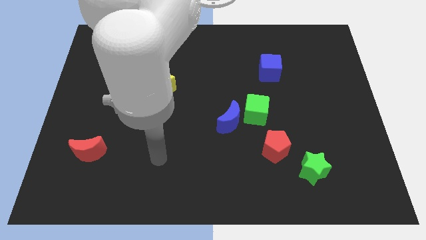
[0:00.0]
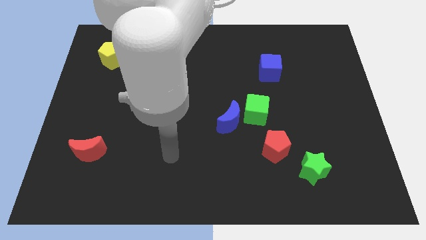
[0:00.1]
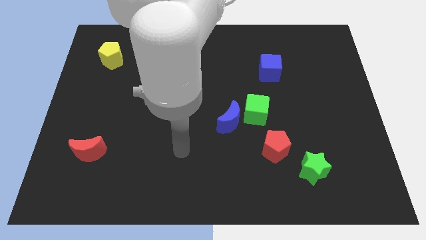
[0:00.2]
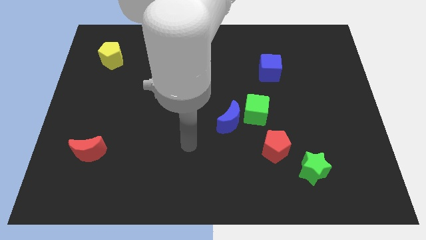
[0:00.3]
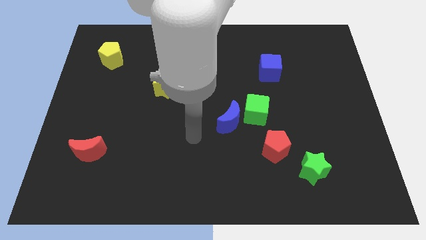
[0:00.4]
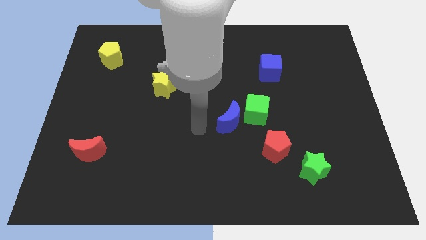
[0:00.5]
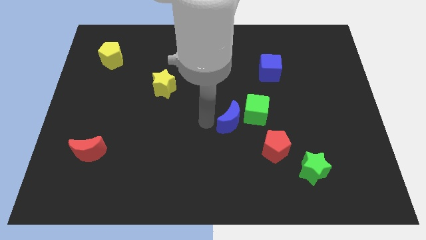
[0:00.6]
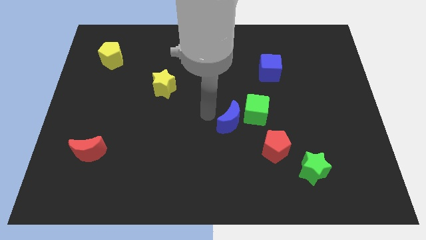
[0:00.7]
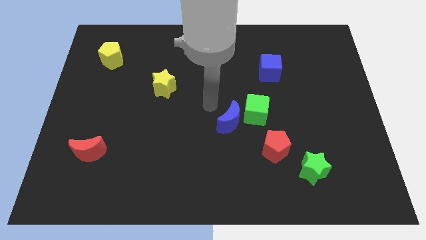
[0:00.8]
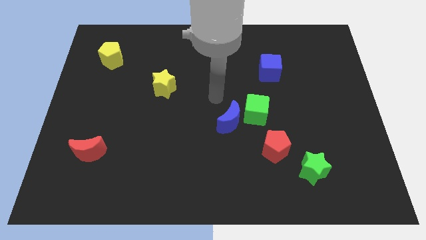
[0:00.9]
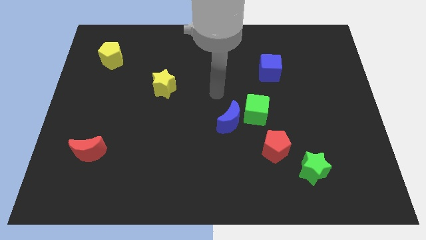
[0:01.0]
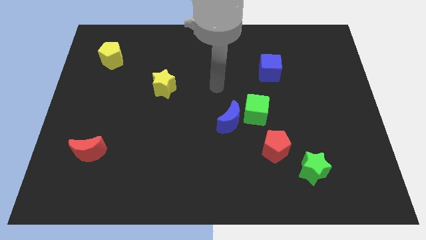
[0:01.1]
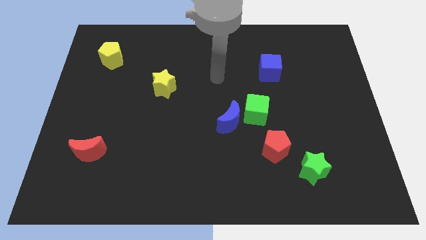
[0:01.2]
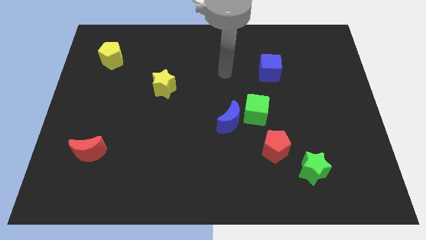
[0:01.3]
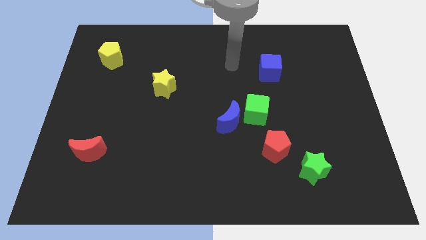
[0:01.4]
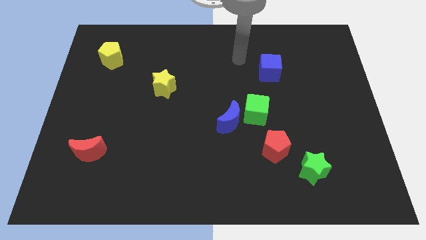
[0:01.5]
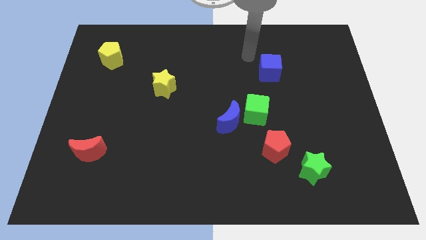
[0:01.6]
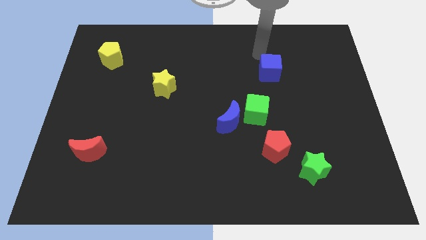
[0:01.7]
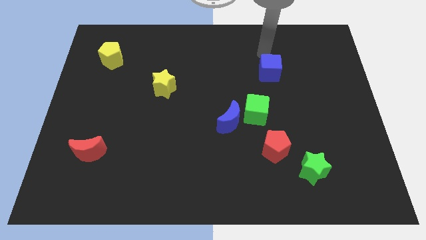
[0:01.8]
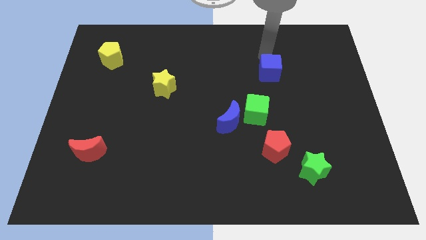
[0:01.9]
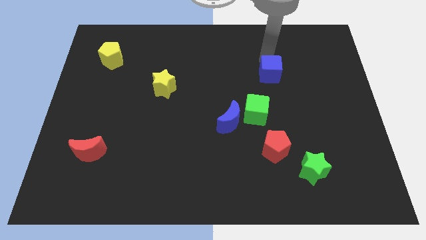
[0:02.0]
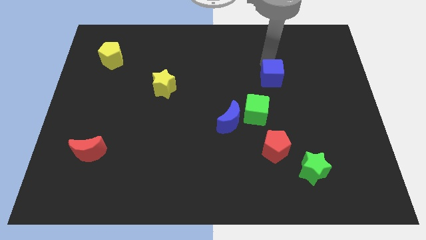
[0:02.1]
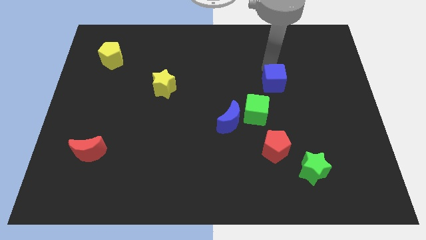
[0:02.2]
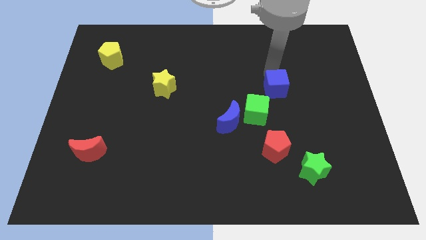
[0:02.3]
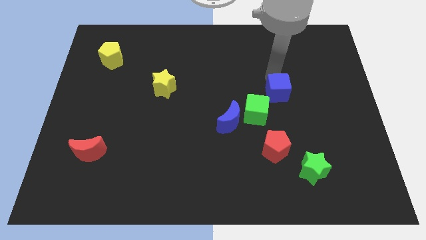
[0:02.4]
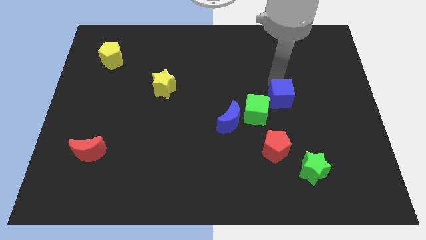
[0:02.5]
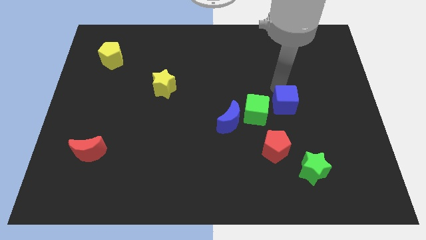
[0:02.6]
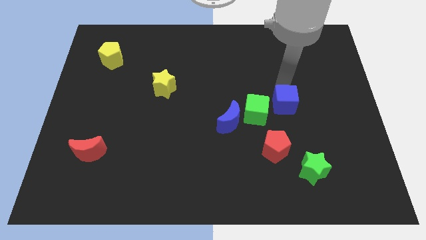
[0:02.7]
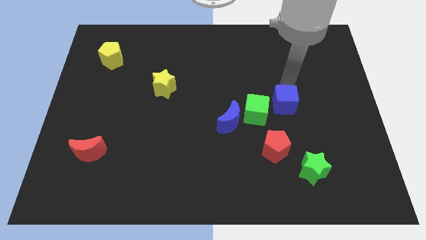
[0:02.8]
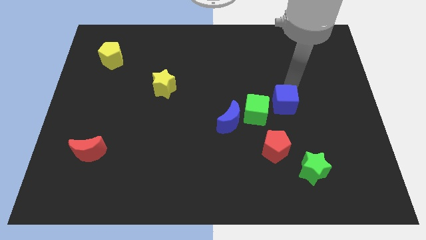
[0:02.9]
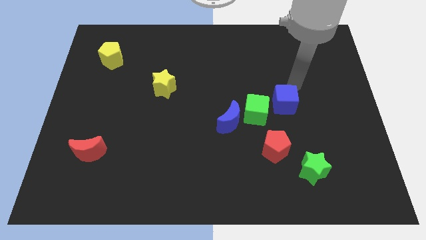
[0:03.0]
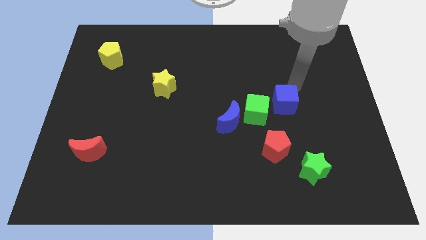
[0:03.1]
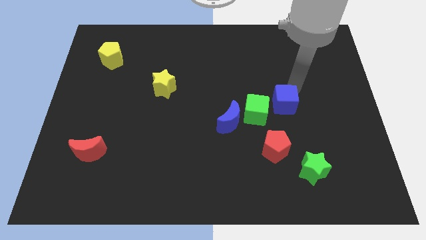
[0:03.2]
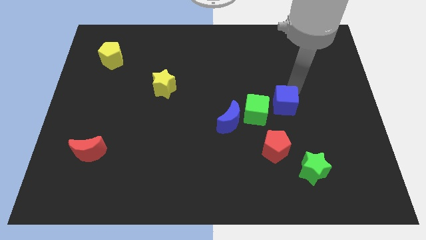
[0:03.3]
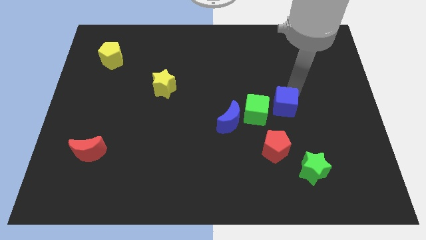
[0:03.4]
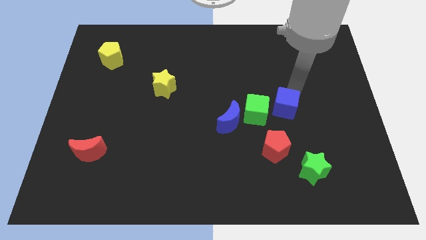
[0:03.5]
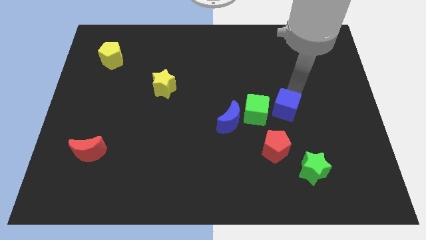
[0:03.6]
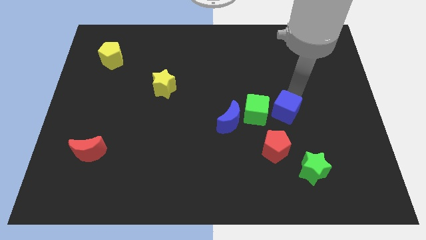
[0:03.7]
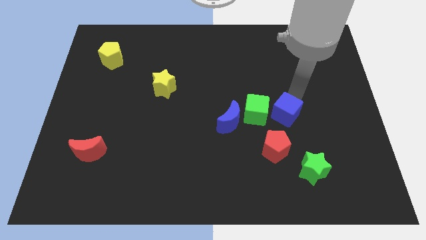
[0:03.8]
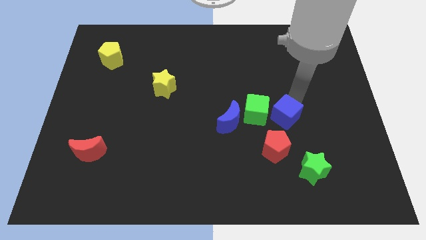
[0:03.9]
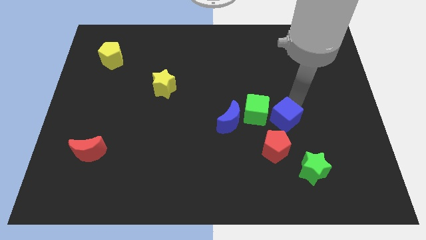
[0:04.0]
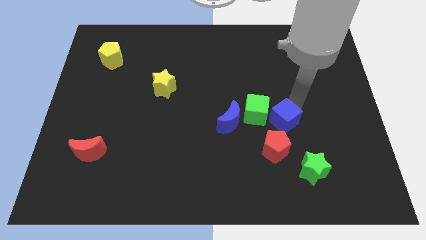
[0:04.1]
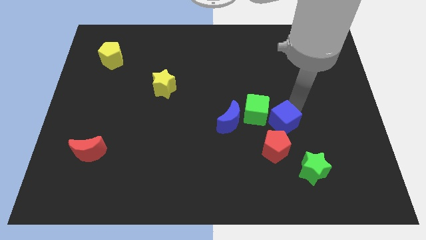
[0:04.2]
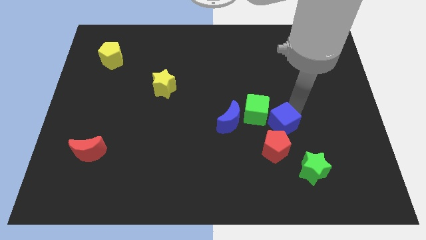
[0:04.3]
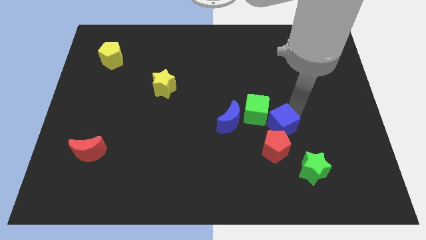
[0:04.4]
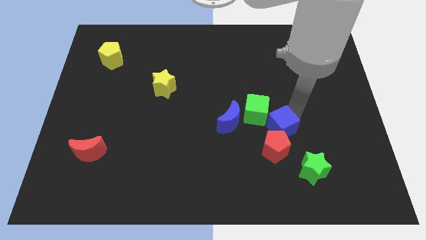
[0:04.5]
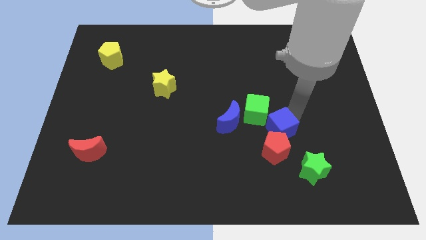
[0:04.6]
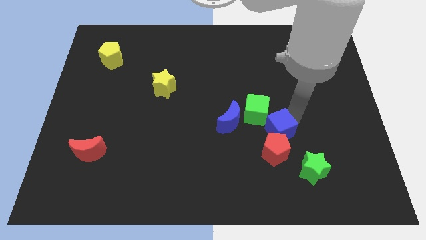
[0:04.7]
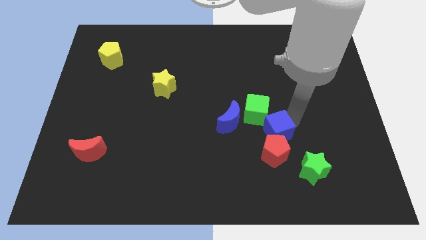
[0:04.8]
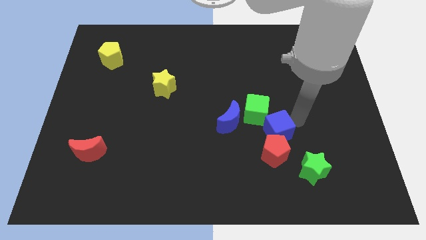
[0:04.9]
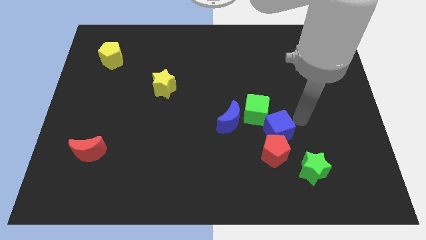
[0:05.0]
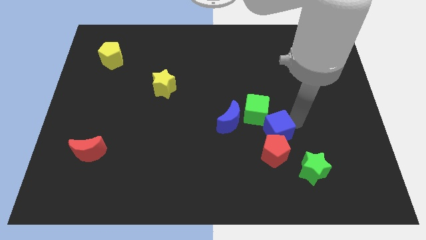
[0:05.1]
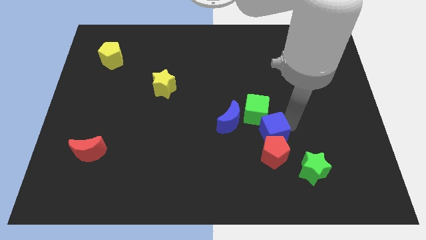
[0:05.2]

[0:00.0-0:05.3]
slide the blue cube diagonally down and to the right of the blue moon
